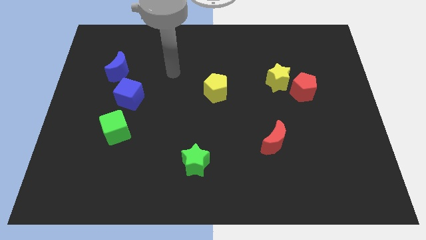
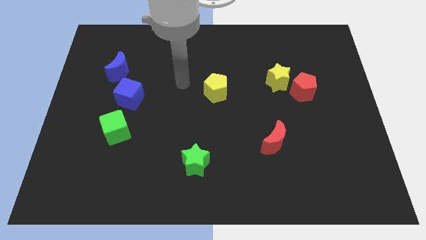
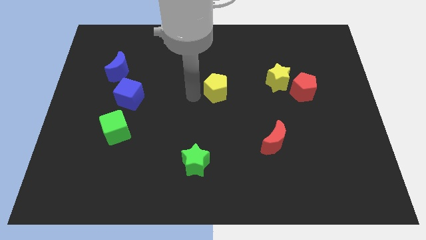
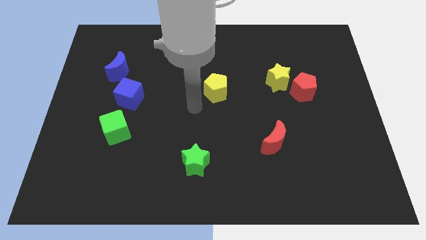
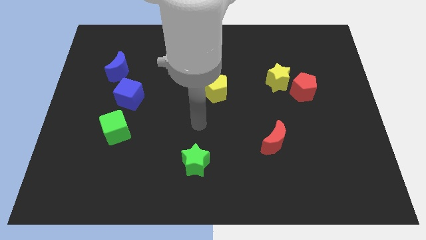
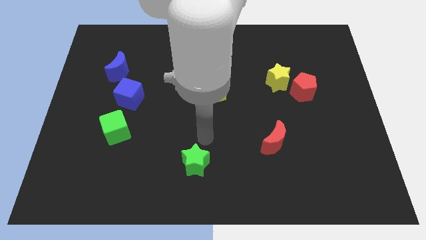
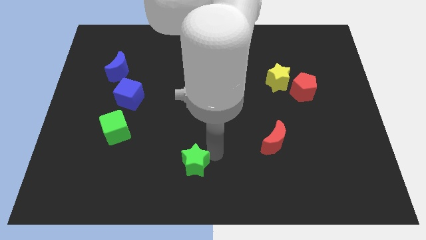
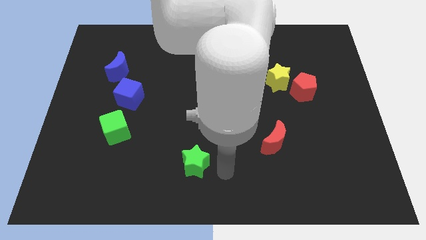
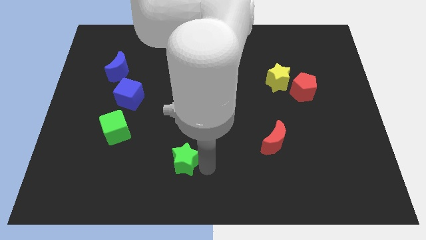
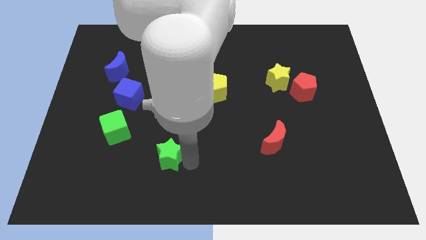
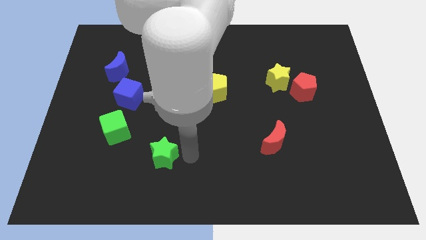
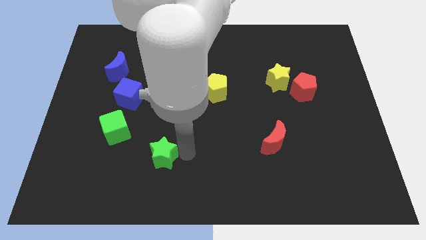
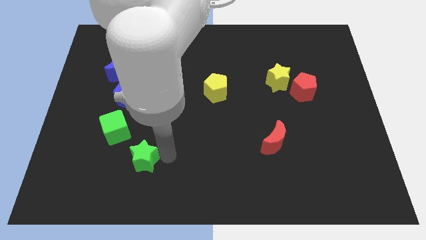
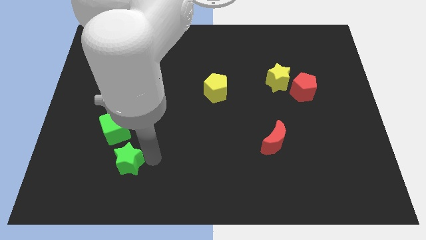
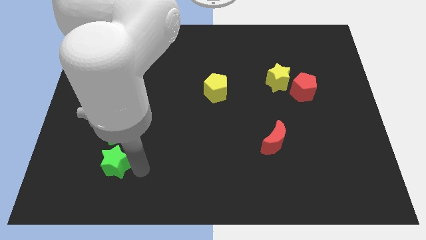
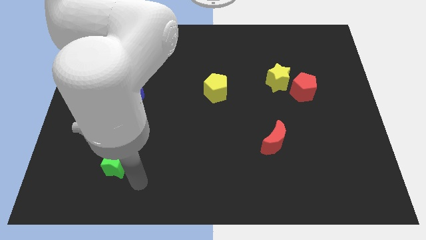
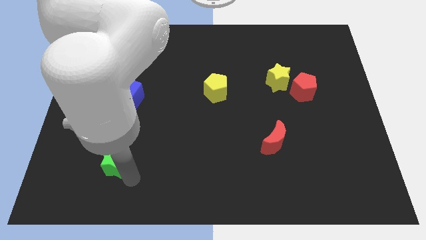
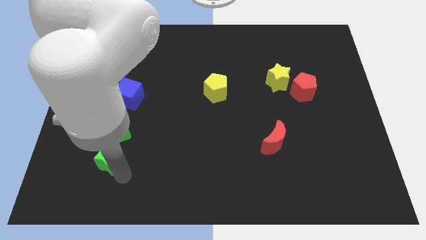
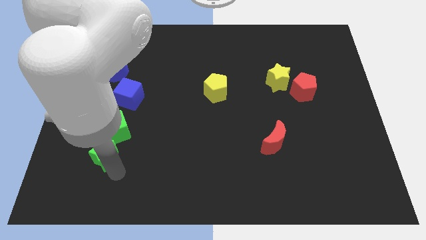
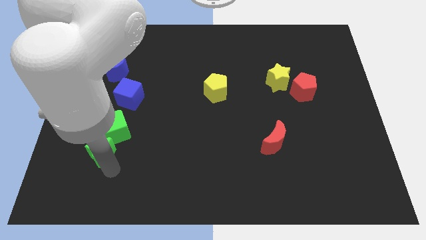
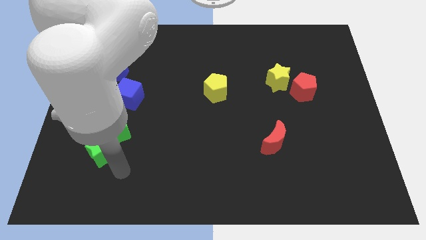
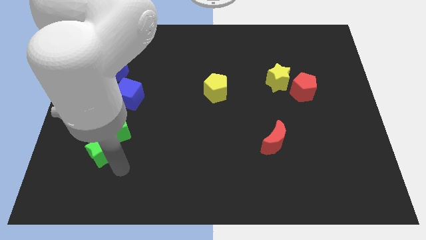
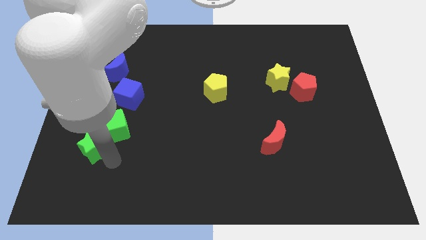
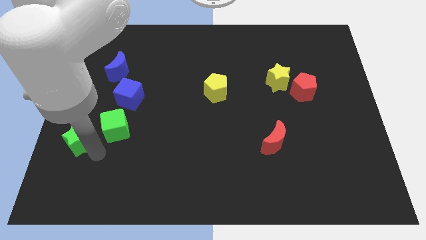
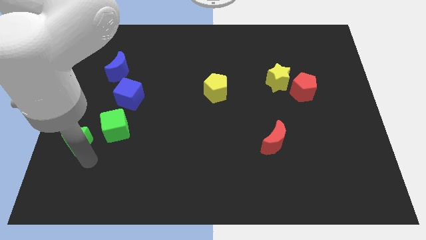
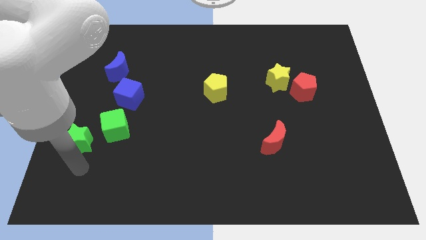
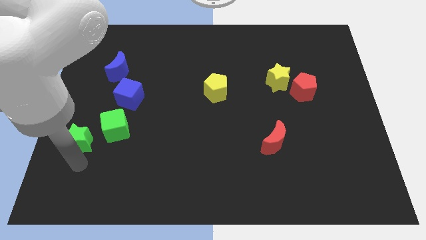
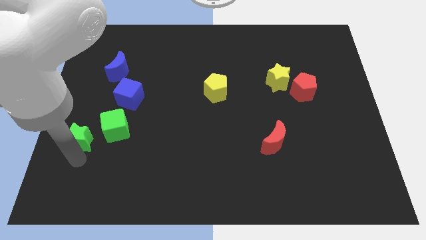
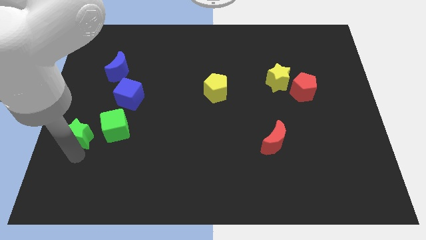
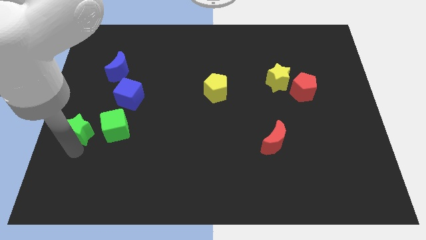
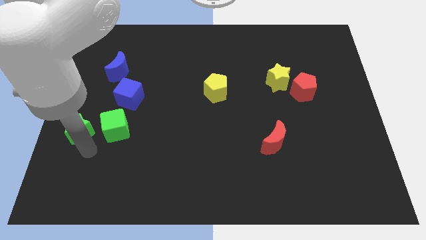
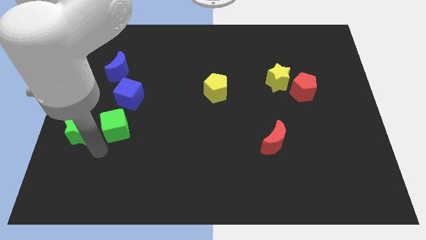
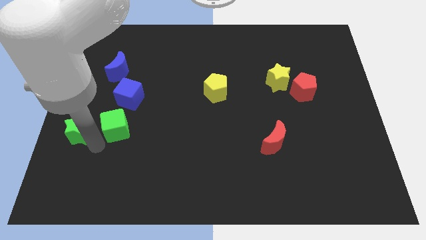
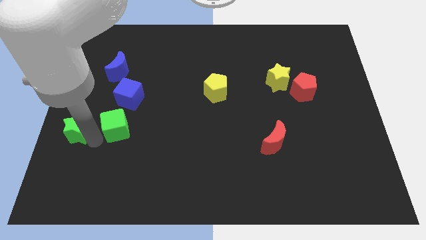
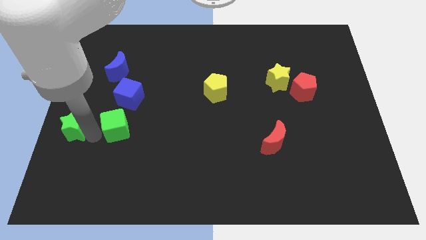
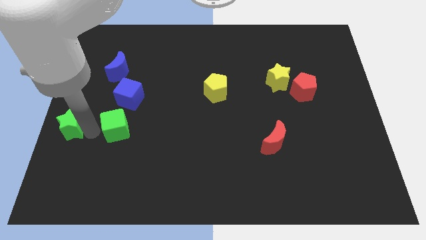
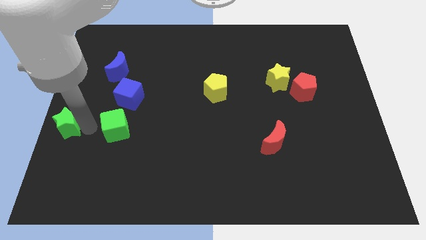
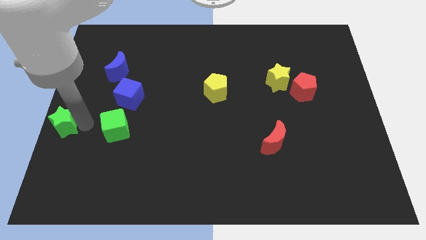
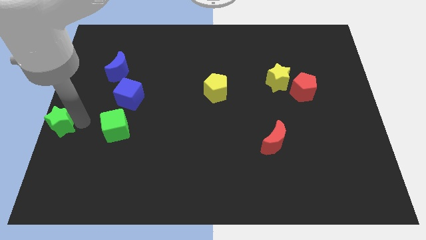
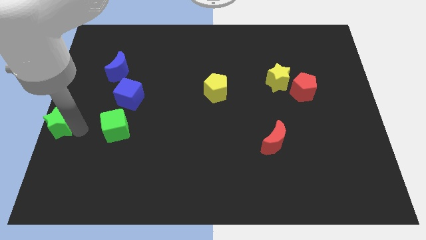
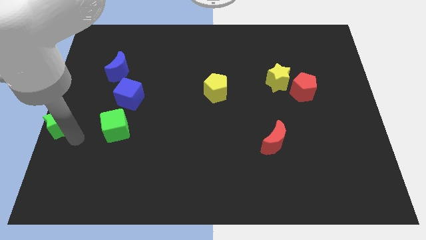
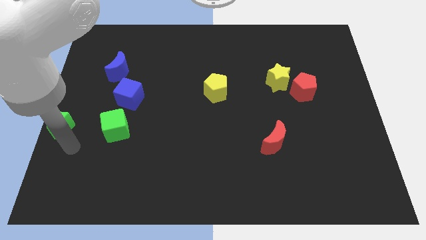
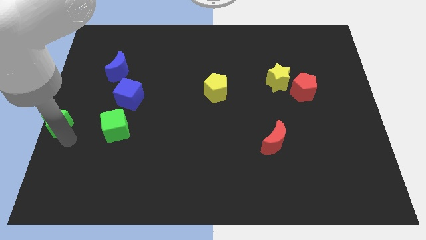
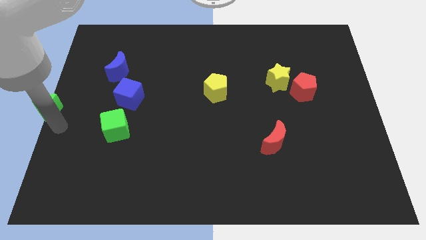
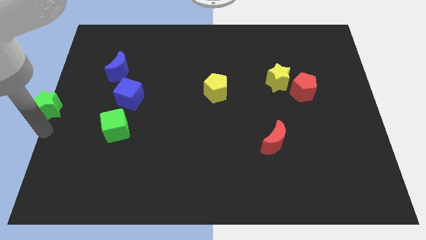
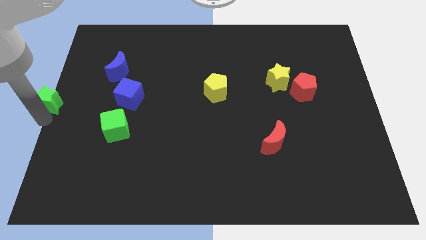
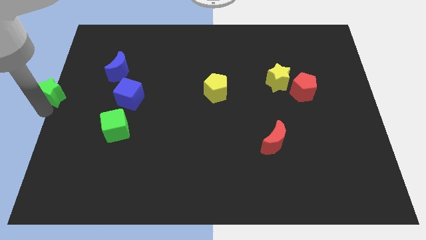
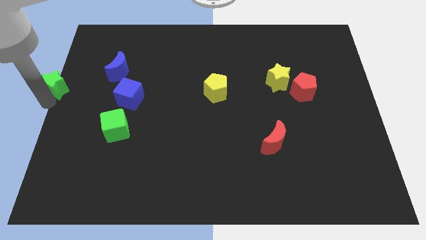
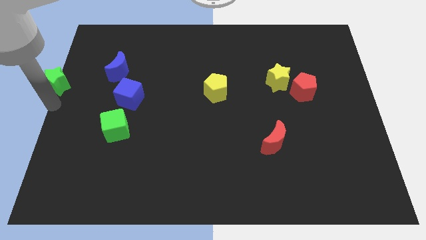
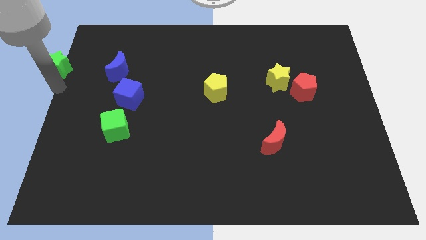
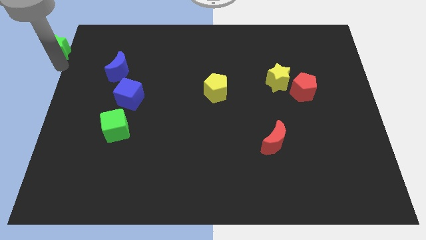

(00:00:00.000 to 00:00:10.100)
slide the green star to the top left of the board

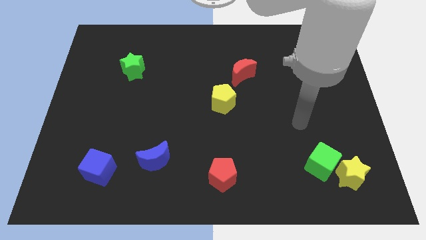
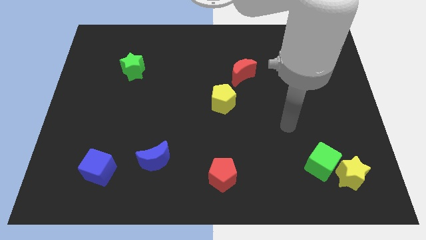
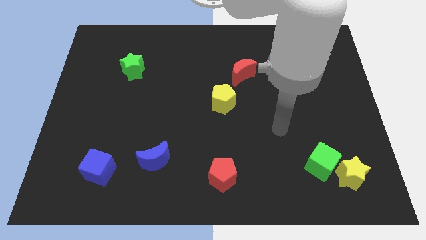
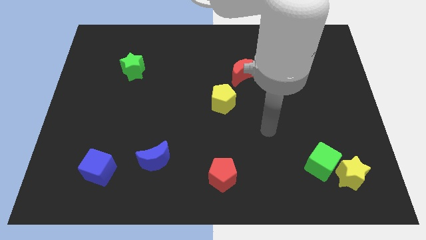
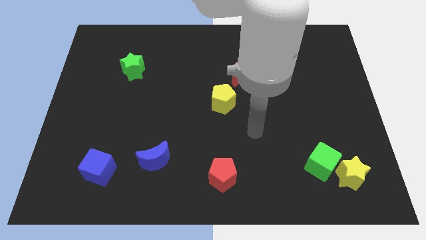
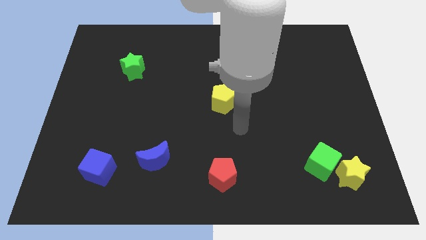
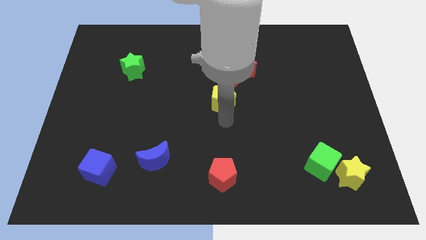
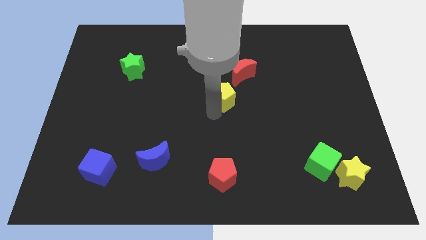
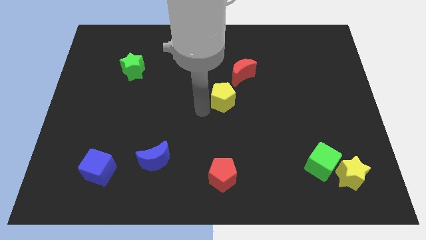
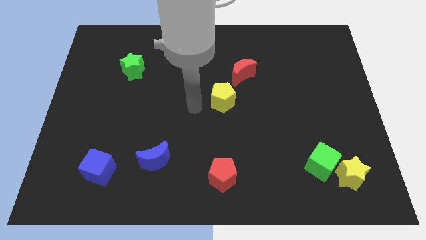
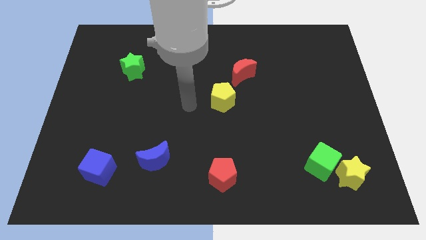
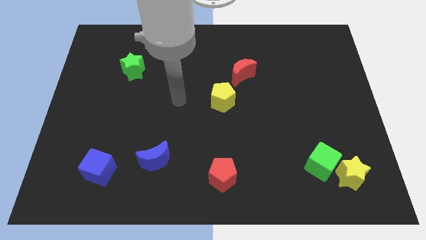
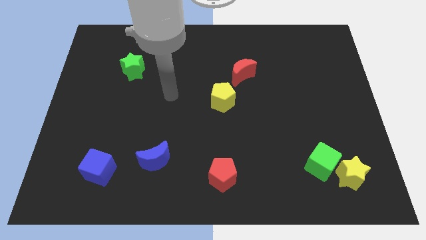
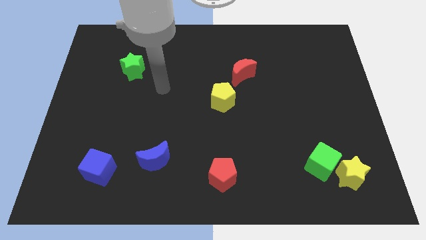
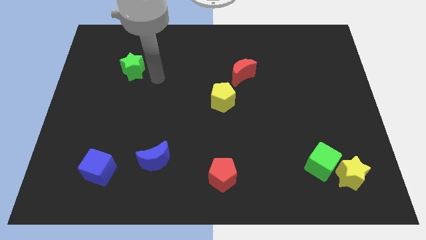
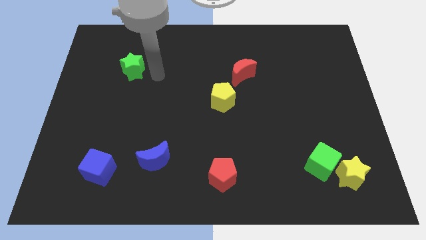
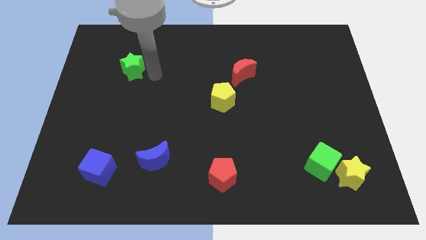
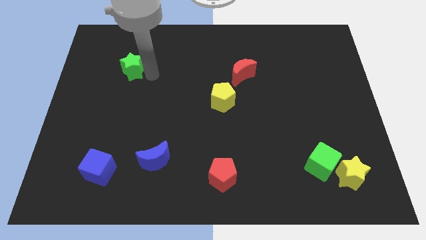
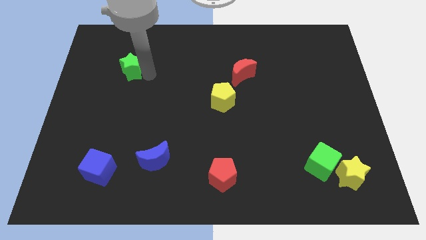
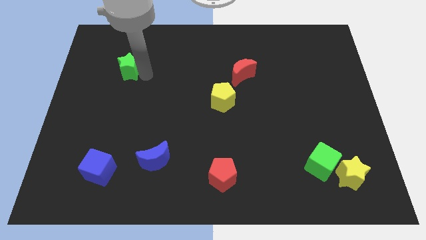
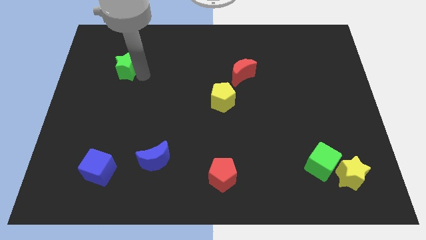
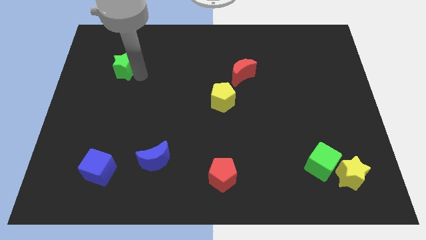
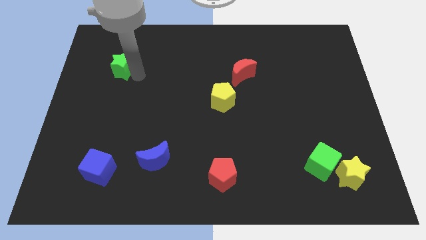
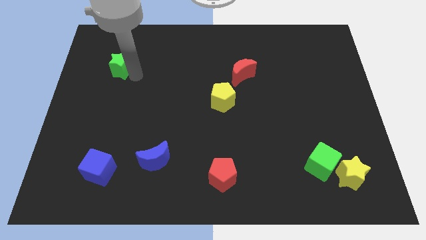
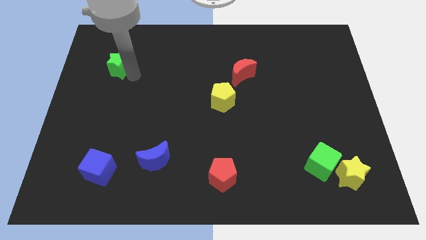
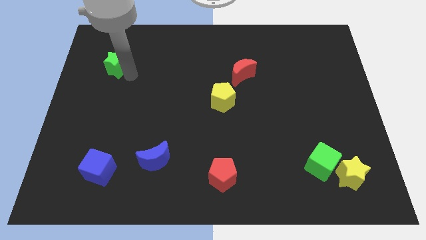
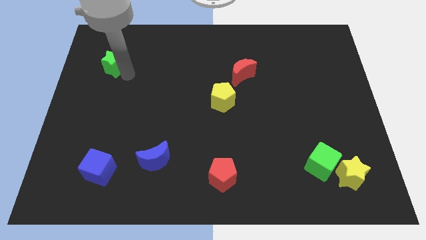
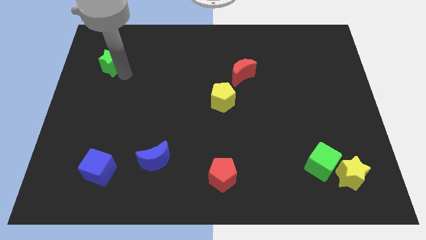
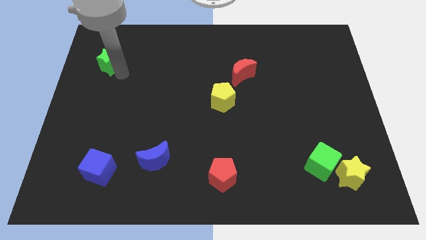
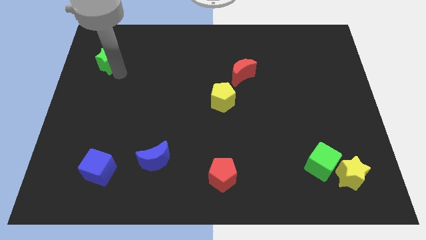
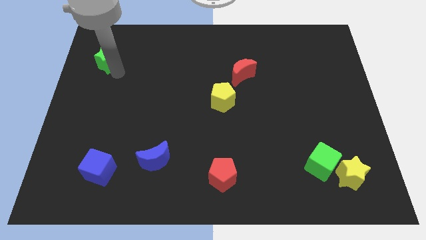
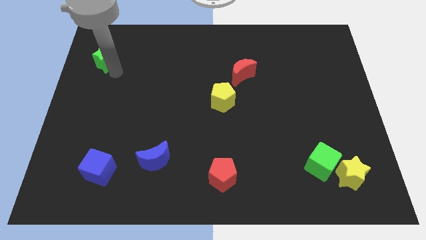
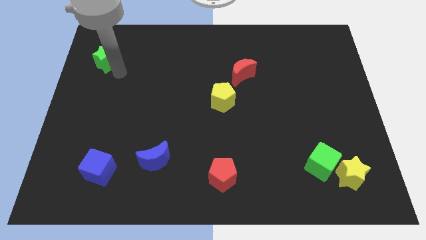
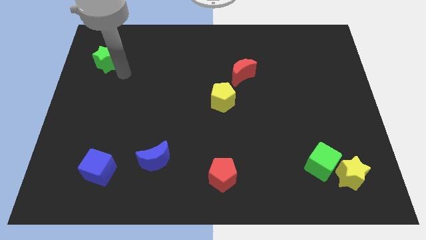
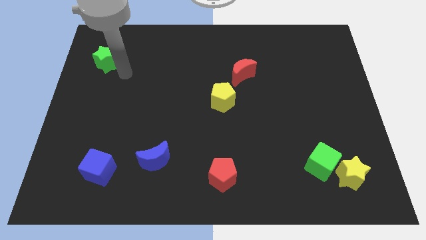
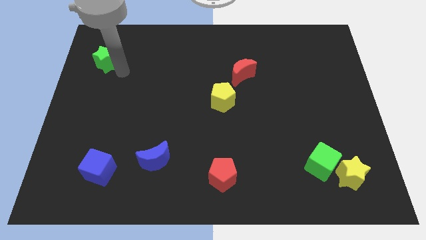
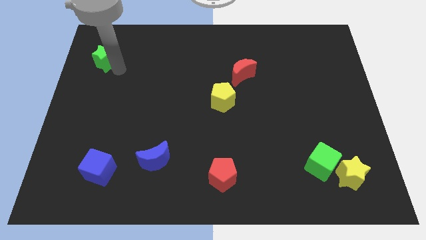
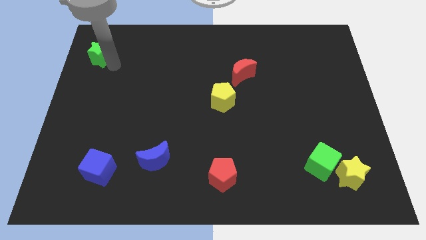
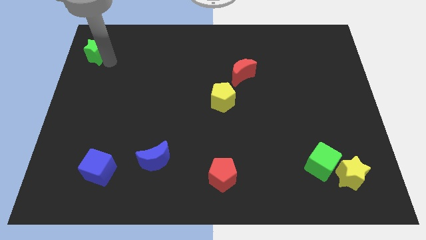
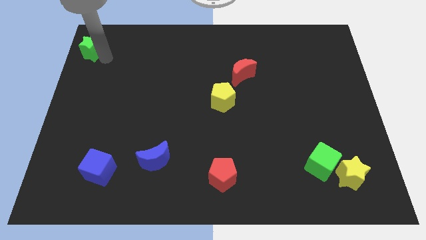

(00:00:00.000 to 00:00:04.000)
slide the green star to the top left
